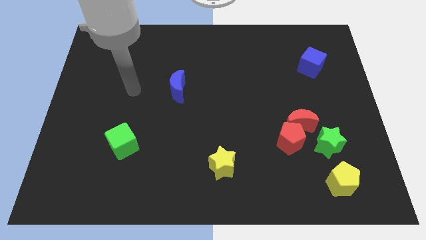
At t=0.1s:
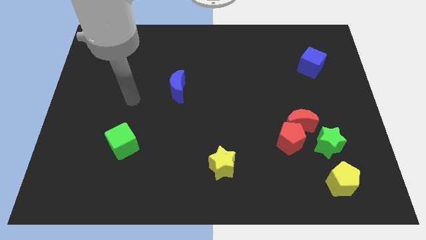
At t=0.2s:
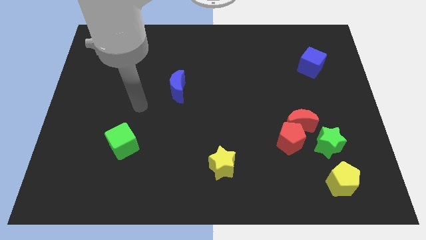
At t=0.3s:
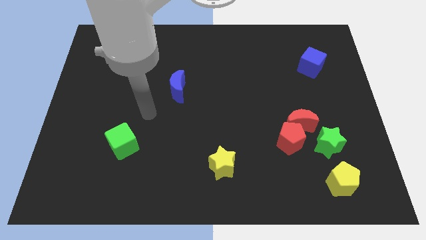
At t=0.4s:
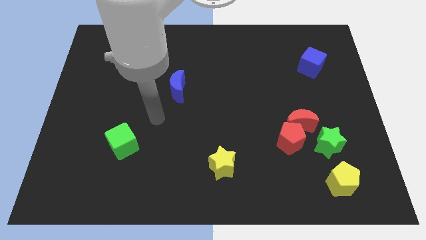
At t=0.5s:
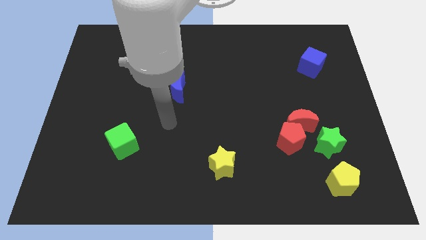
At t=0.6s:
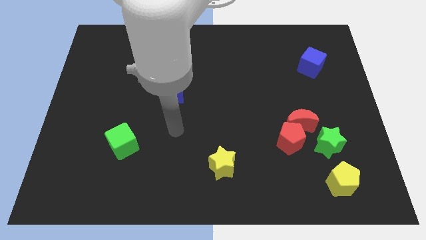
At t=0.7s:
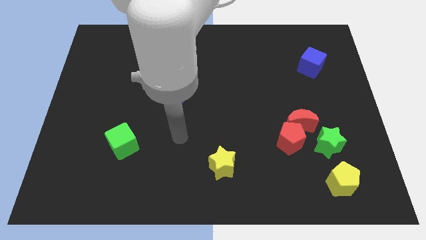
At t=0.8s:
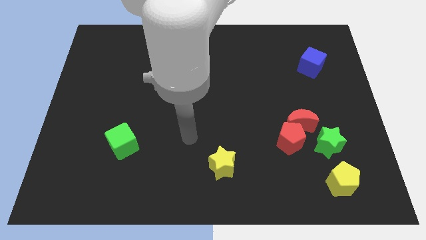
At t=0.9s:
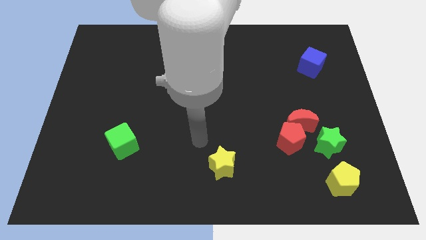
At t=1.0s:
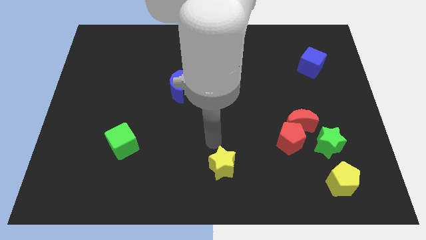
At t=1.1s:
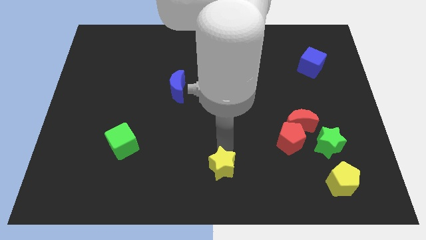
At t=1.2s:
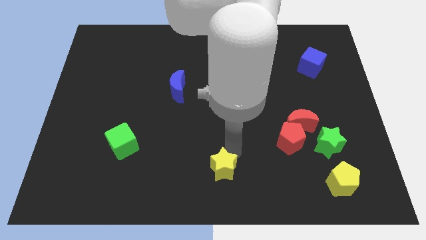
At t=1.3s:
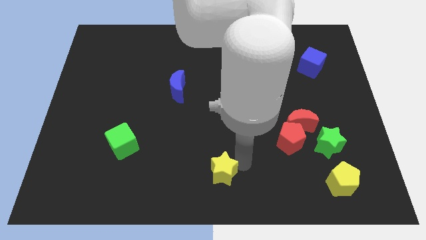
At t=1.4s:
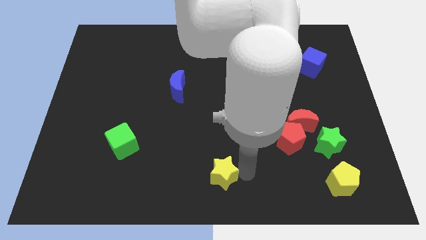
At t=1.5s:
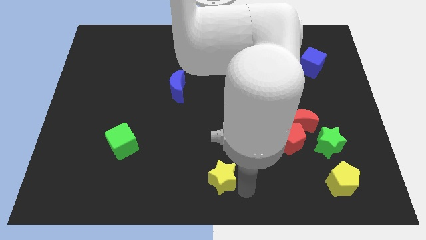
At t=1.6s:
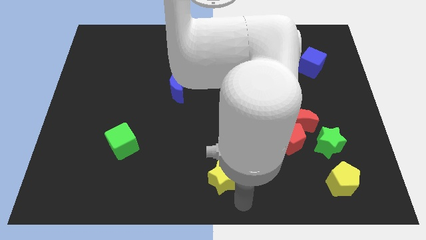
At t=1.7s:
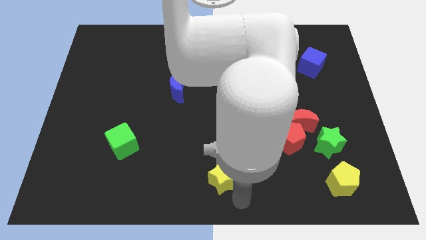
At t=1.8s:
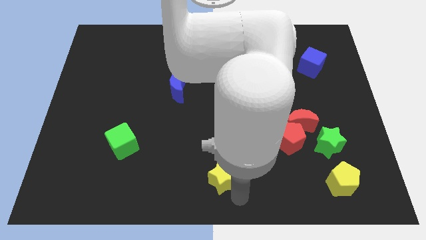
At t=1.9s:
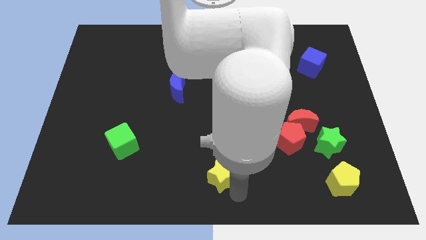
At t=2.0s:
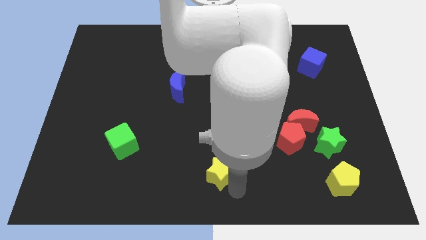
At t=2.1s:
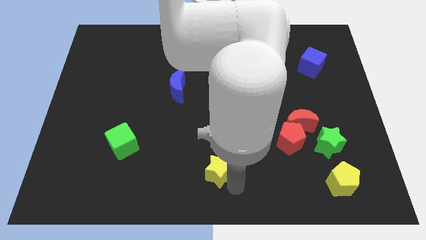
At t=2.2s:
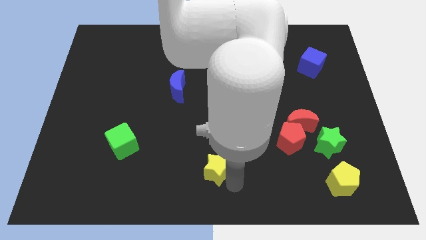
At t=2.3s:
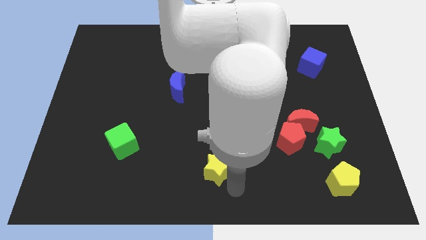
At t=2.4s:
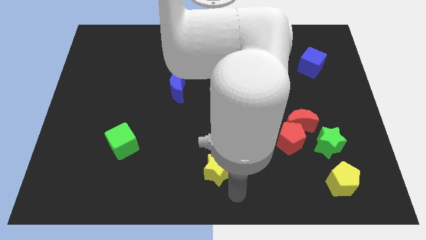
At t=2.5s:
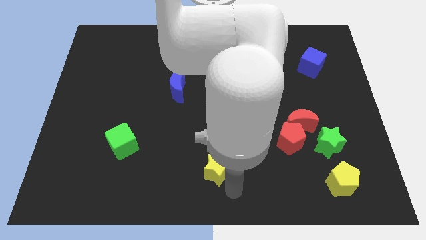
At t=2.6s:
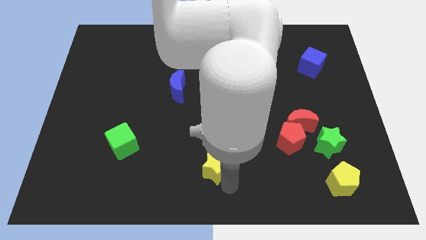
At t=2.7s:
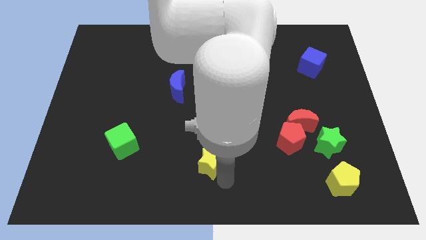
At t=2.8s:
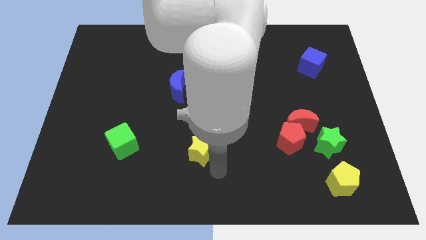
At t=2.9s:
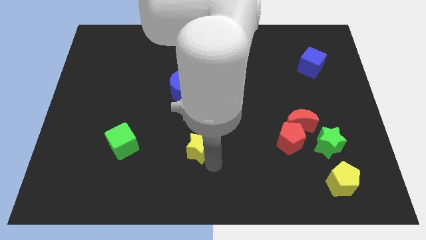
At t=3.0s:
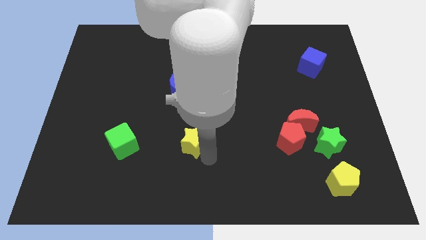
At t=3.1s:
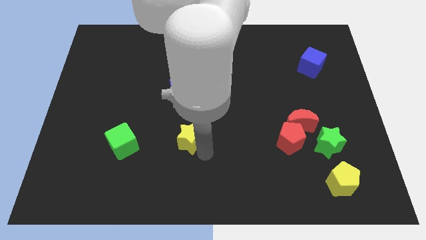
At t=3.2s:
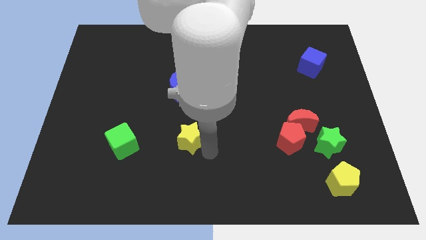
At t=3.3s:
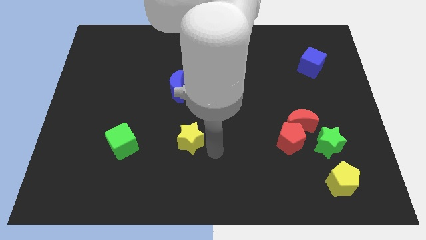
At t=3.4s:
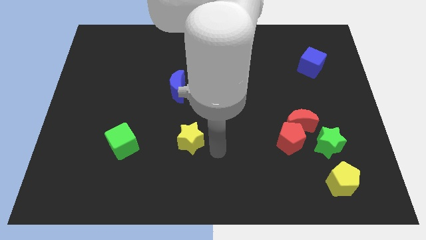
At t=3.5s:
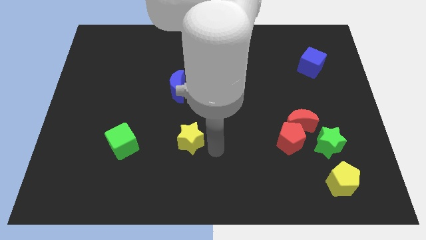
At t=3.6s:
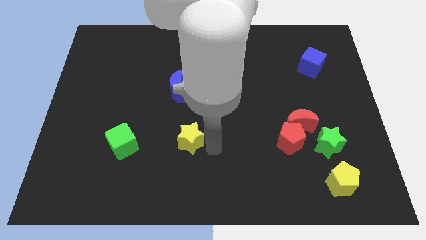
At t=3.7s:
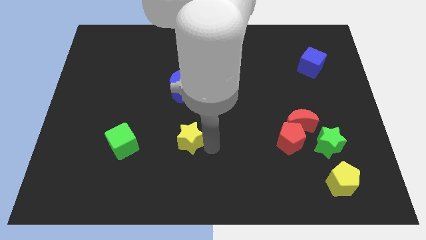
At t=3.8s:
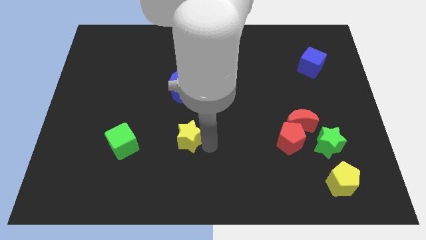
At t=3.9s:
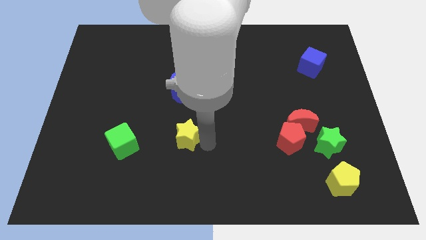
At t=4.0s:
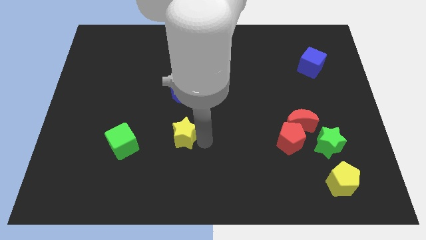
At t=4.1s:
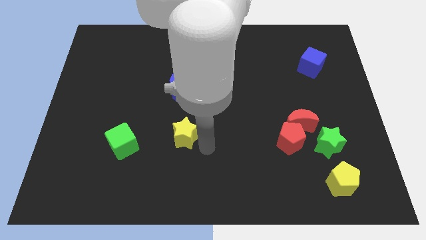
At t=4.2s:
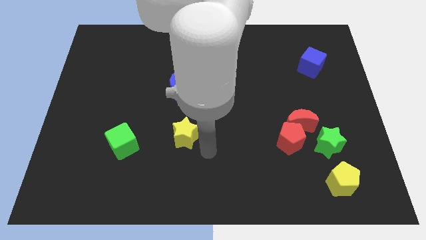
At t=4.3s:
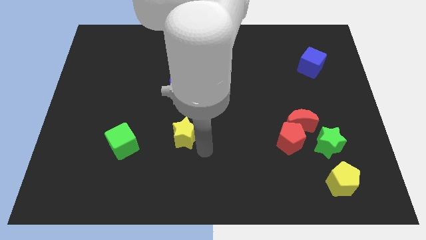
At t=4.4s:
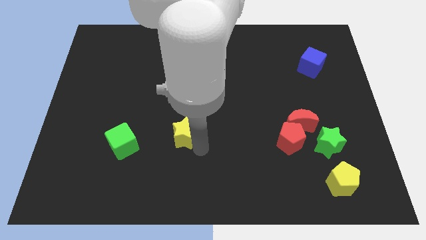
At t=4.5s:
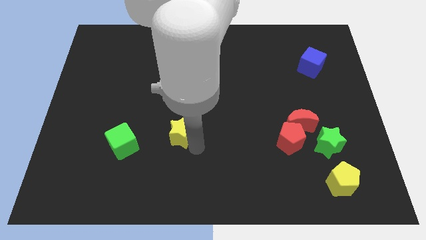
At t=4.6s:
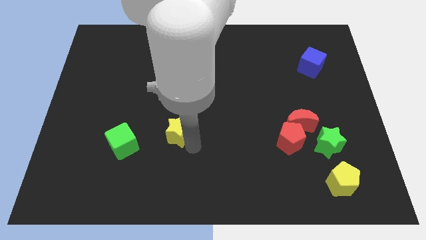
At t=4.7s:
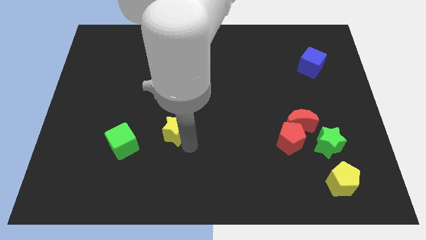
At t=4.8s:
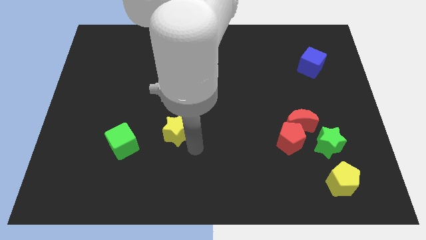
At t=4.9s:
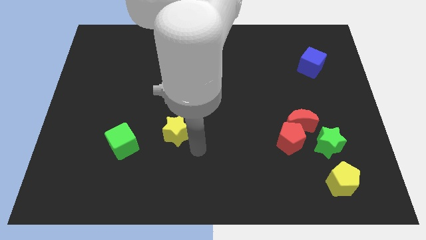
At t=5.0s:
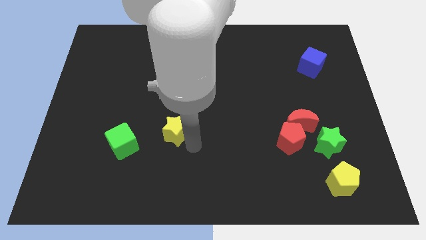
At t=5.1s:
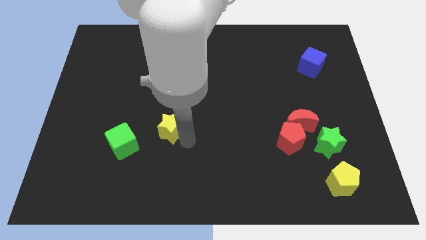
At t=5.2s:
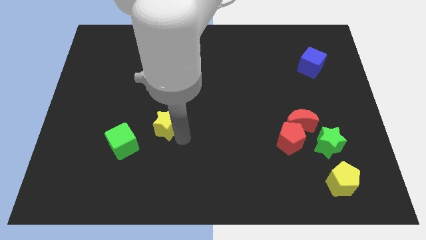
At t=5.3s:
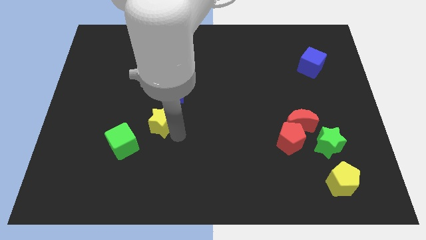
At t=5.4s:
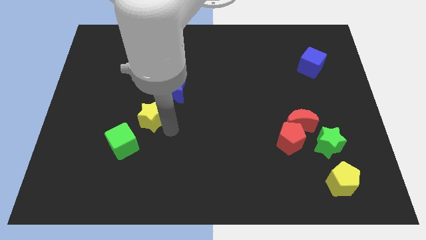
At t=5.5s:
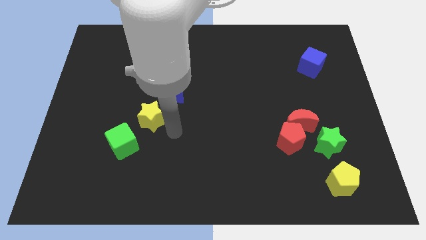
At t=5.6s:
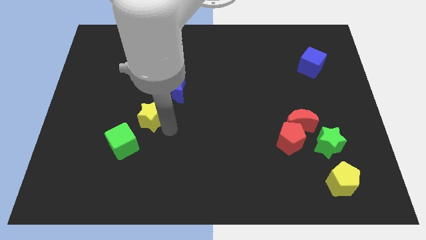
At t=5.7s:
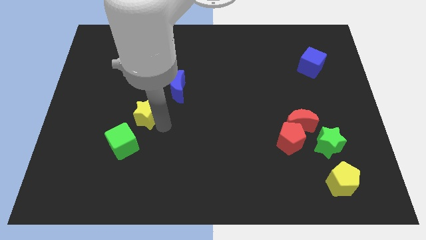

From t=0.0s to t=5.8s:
move the yellow star above the green cube
